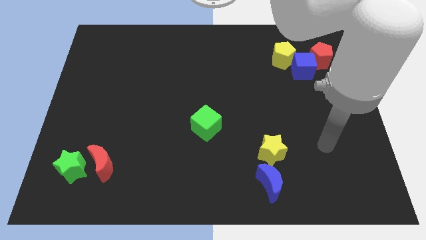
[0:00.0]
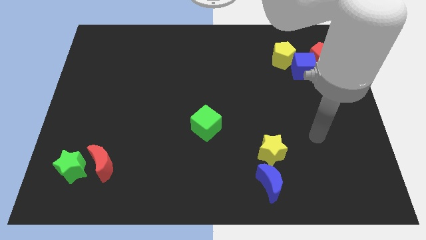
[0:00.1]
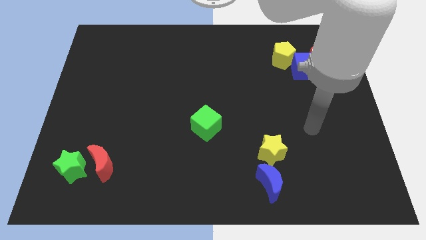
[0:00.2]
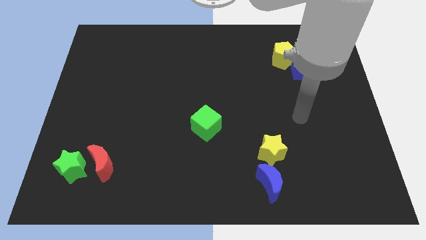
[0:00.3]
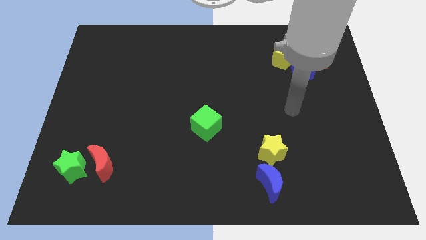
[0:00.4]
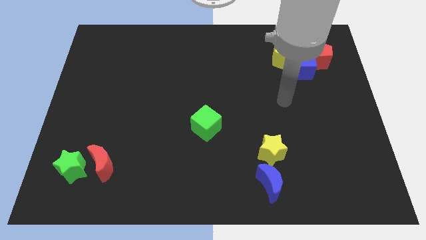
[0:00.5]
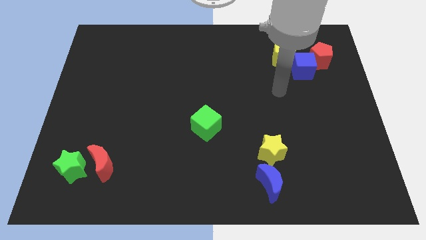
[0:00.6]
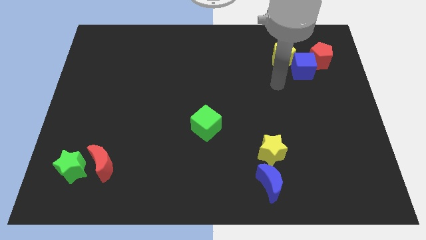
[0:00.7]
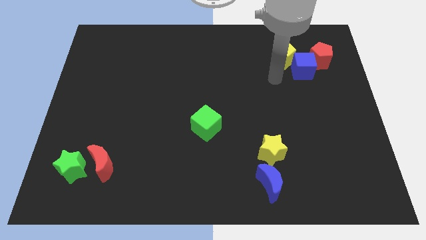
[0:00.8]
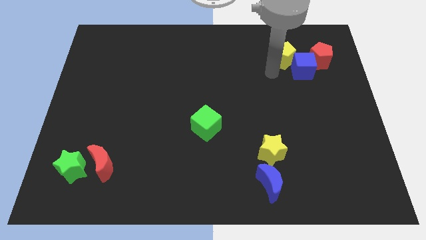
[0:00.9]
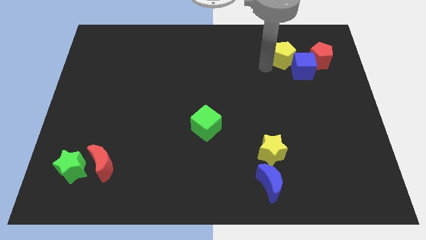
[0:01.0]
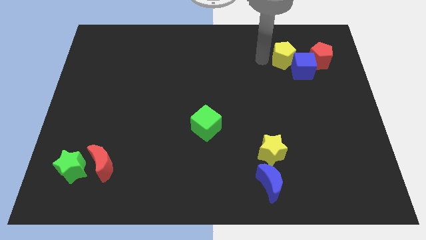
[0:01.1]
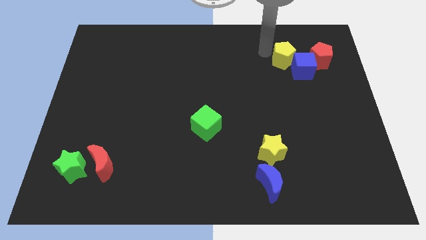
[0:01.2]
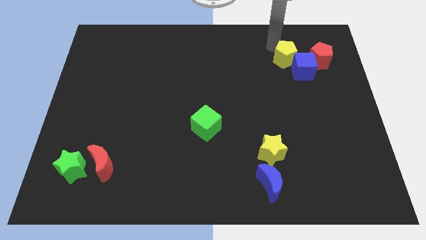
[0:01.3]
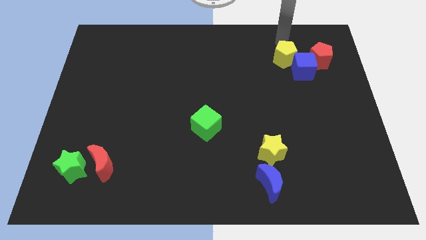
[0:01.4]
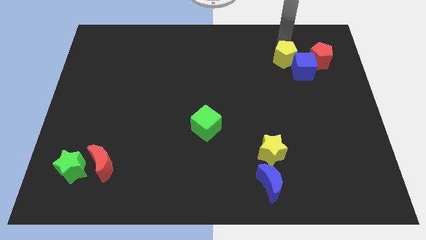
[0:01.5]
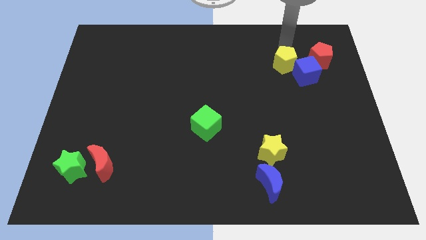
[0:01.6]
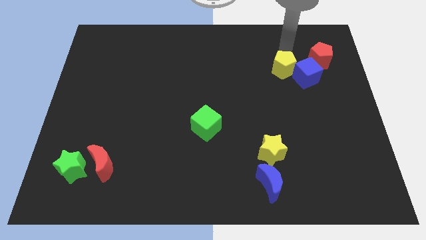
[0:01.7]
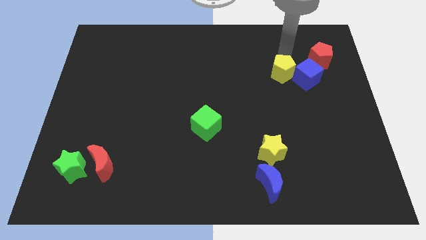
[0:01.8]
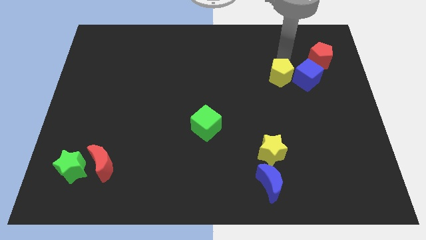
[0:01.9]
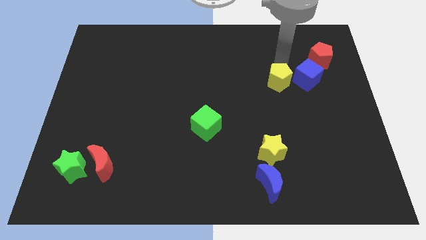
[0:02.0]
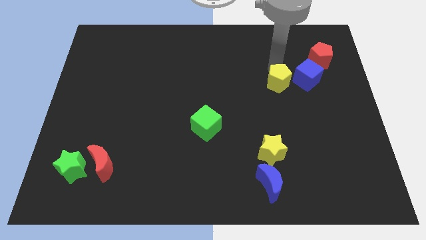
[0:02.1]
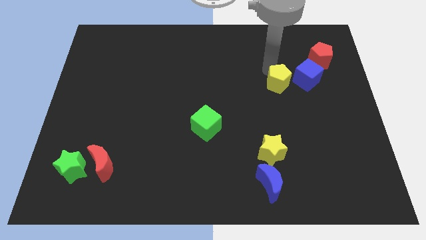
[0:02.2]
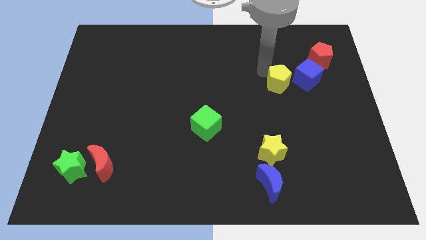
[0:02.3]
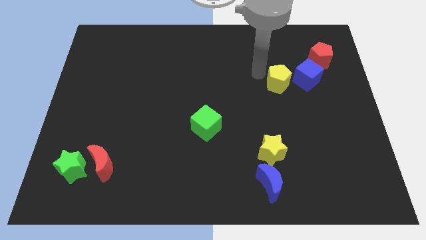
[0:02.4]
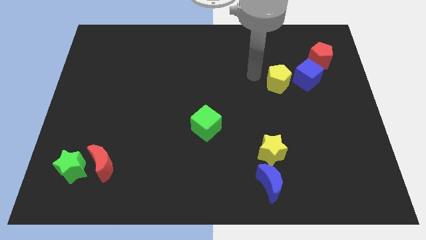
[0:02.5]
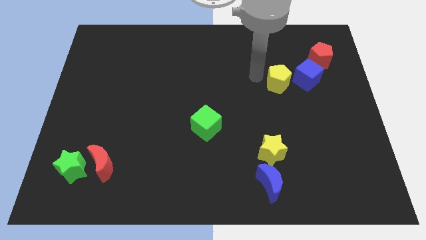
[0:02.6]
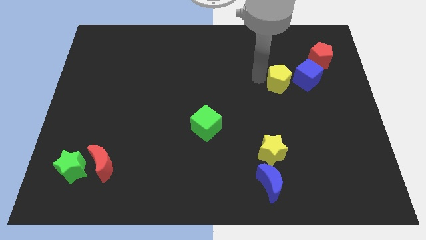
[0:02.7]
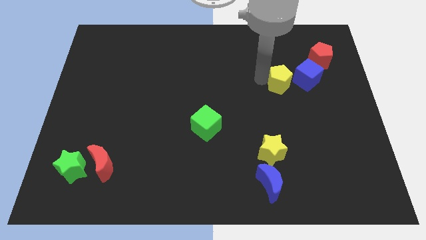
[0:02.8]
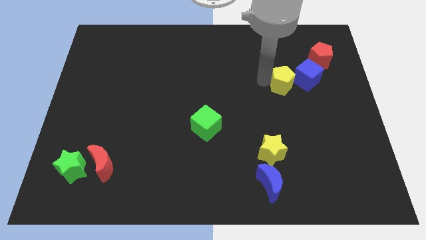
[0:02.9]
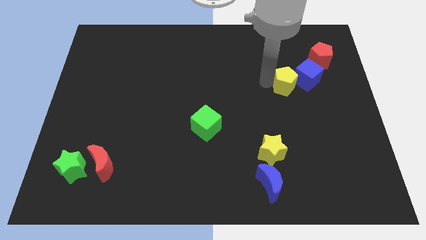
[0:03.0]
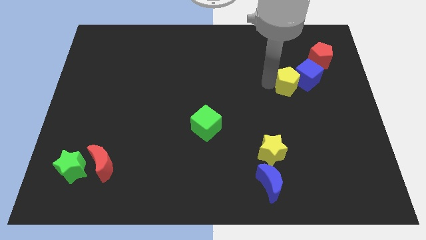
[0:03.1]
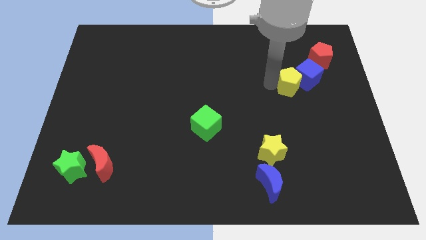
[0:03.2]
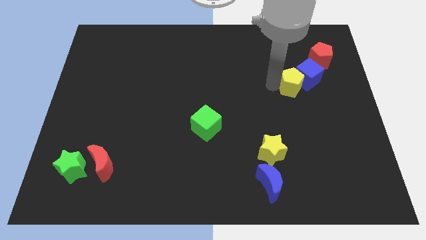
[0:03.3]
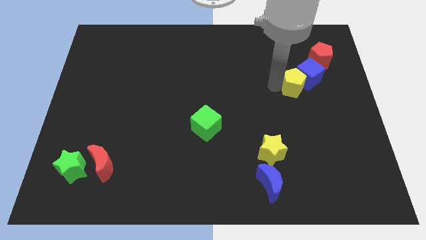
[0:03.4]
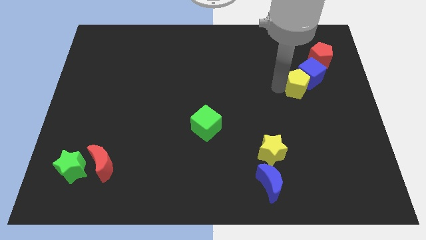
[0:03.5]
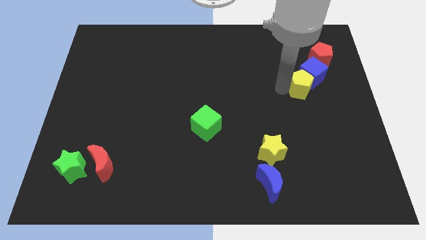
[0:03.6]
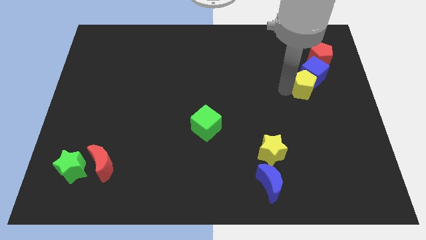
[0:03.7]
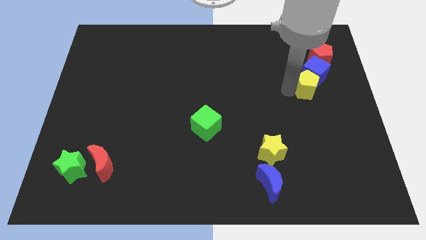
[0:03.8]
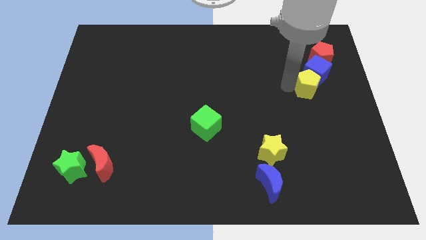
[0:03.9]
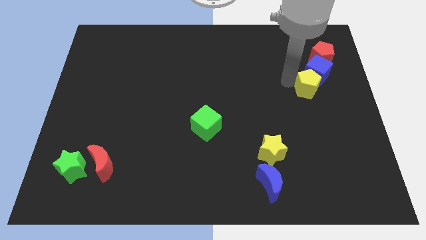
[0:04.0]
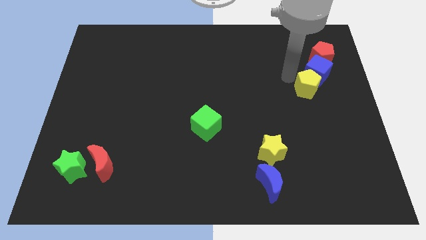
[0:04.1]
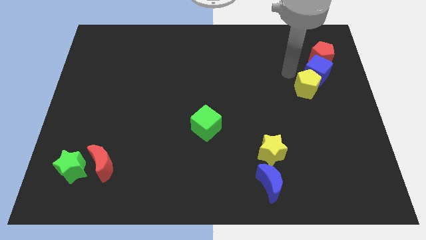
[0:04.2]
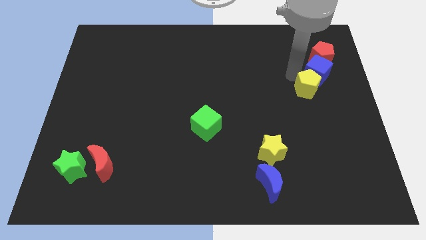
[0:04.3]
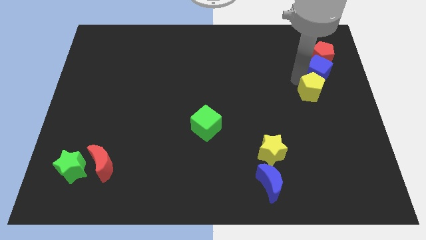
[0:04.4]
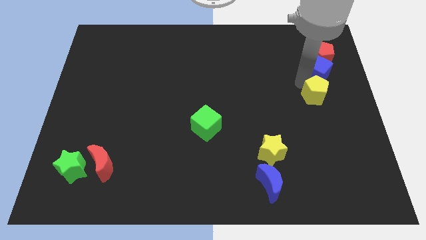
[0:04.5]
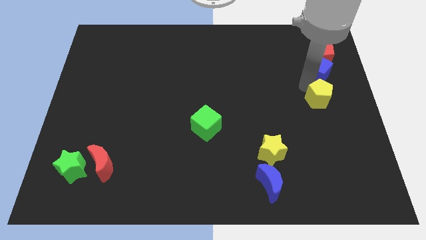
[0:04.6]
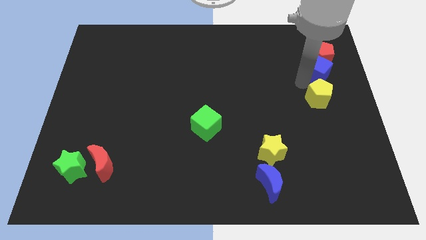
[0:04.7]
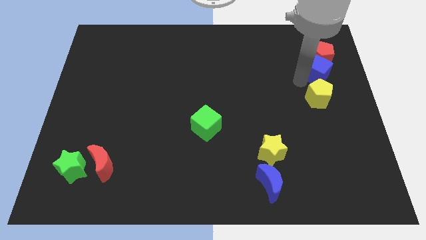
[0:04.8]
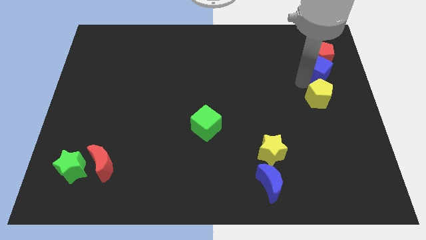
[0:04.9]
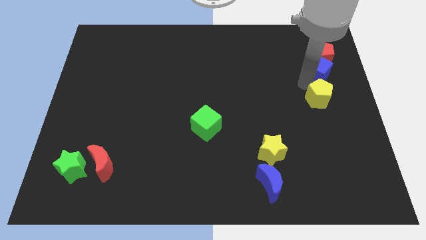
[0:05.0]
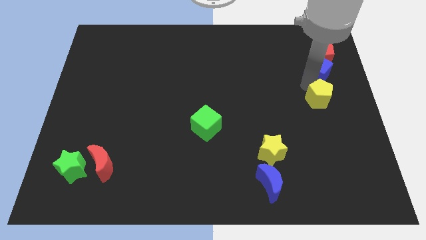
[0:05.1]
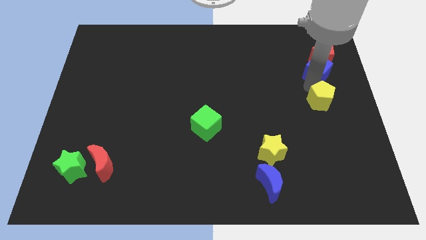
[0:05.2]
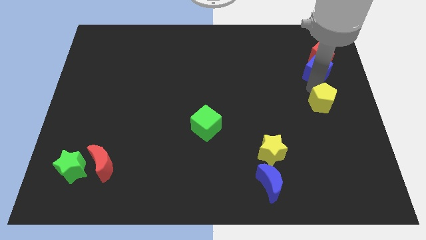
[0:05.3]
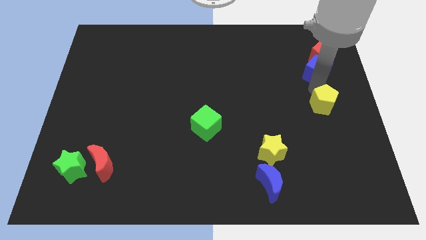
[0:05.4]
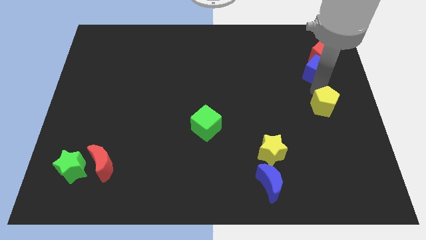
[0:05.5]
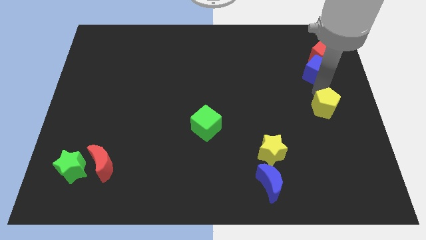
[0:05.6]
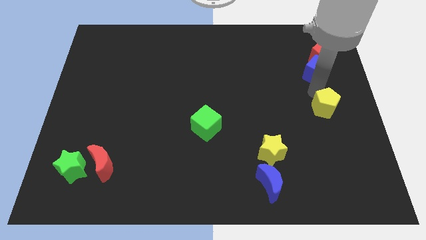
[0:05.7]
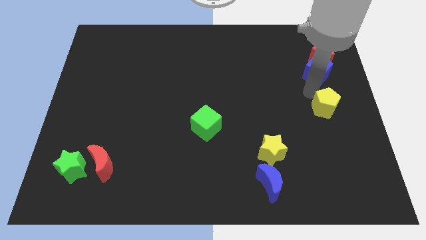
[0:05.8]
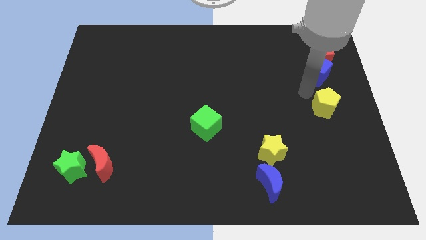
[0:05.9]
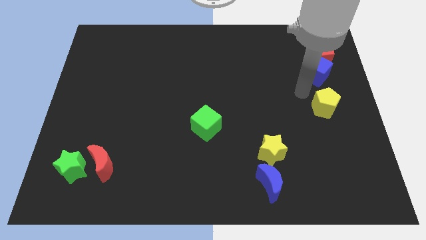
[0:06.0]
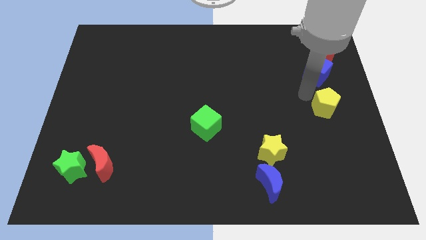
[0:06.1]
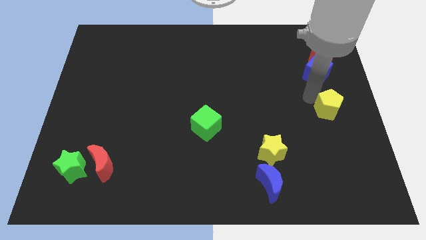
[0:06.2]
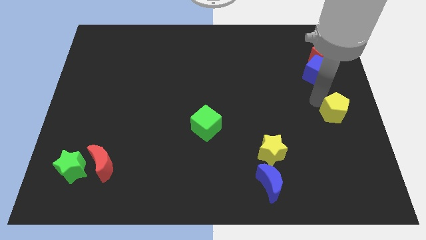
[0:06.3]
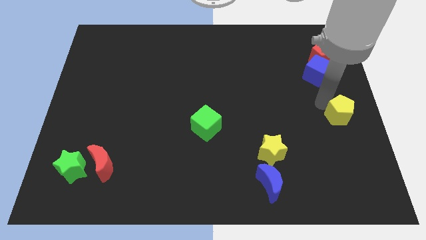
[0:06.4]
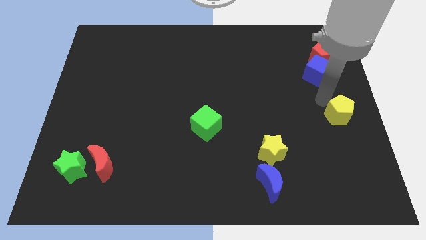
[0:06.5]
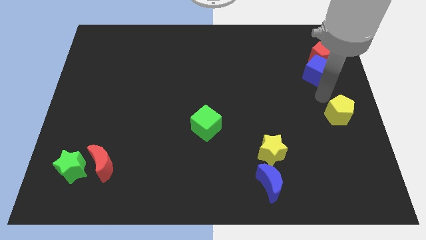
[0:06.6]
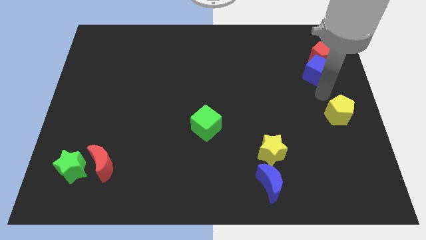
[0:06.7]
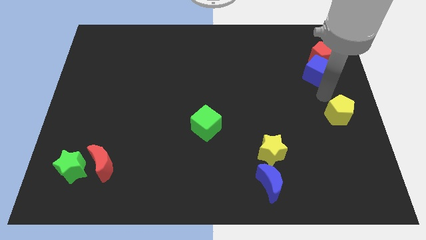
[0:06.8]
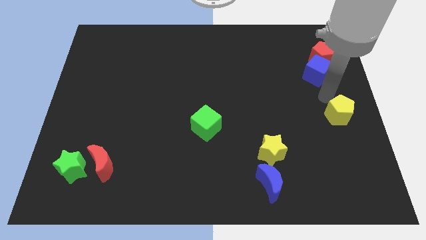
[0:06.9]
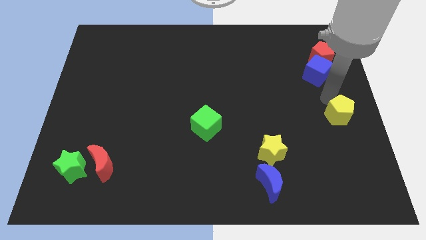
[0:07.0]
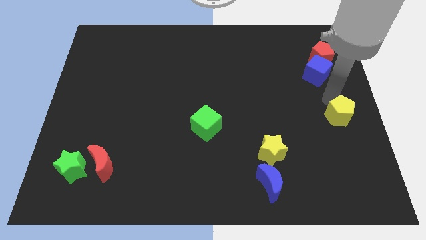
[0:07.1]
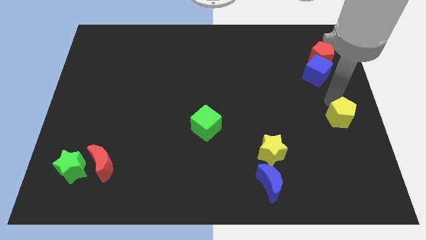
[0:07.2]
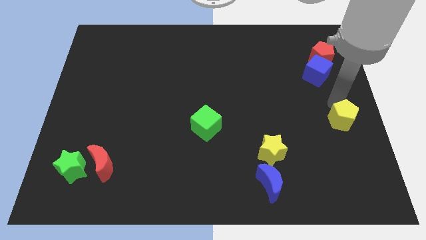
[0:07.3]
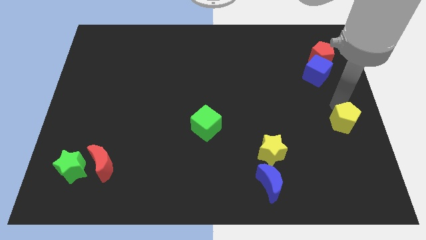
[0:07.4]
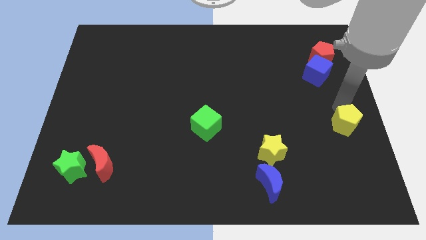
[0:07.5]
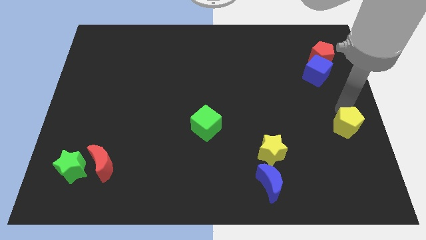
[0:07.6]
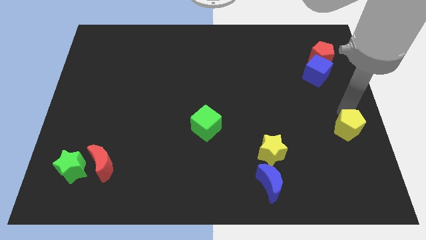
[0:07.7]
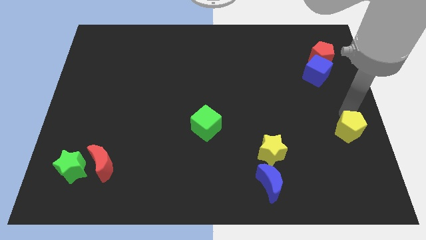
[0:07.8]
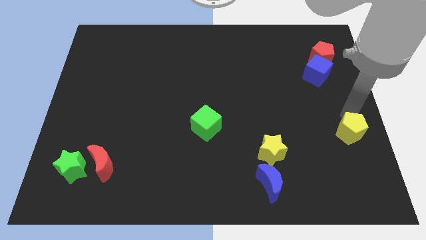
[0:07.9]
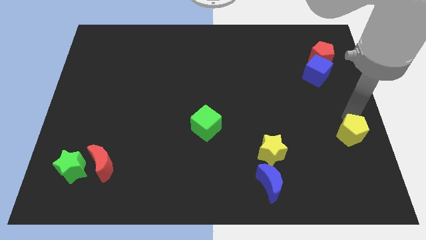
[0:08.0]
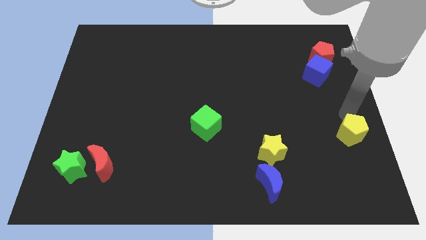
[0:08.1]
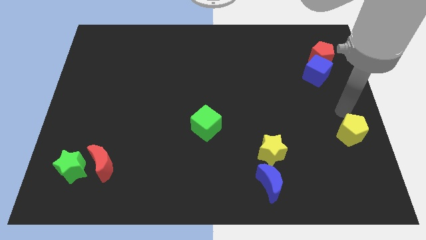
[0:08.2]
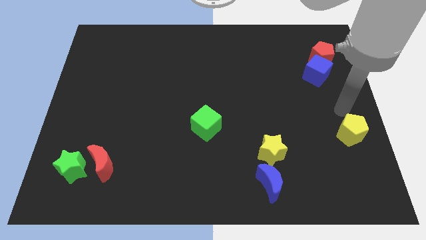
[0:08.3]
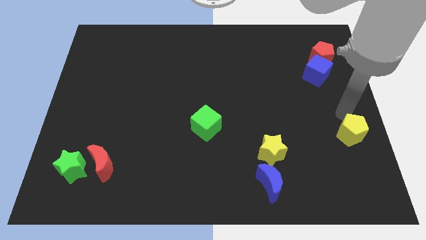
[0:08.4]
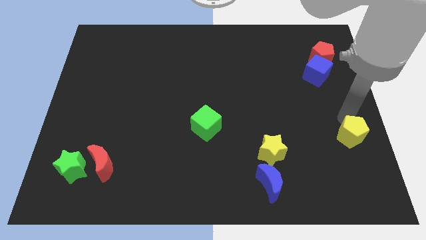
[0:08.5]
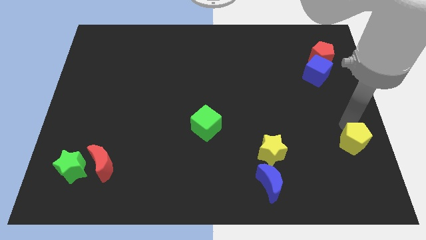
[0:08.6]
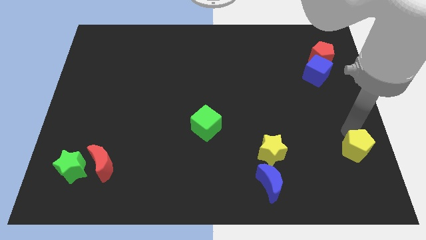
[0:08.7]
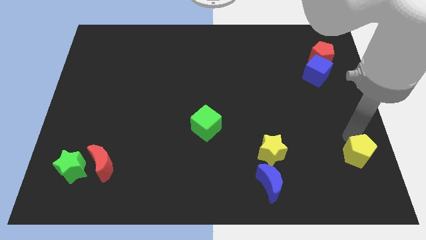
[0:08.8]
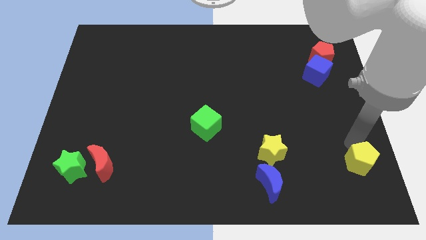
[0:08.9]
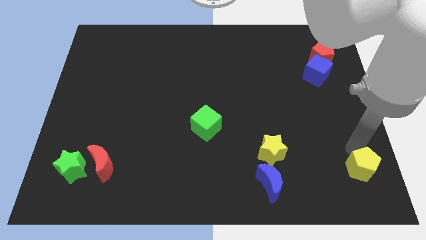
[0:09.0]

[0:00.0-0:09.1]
put the yellow pentagon to the lower right corner
